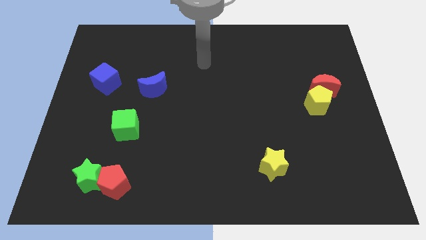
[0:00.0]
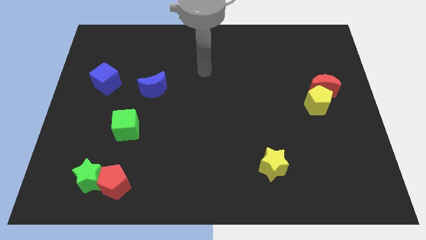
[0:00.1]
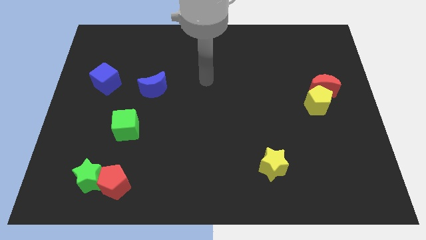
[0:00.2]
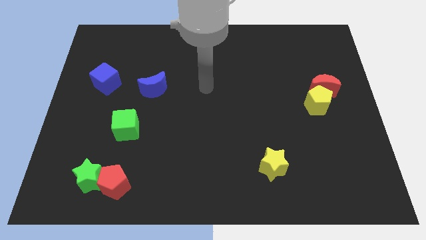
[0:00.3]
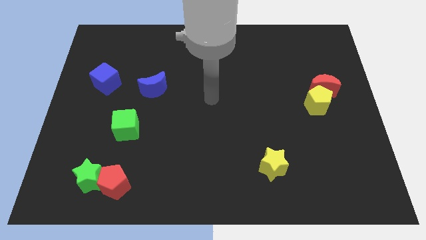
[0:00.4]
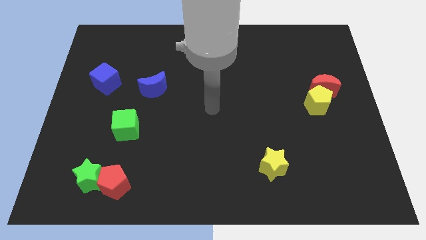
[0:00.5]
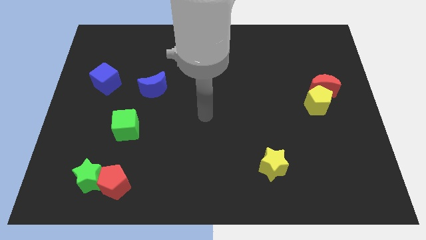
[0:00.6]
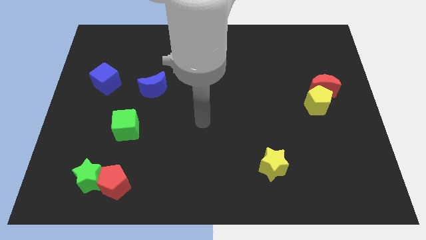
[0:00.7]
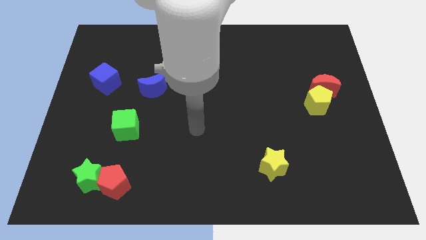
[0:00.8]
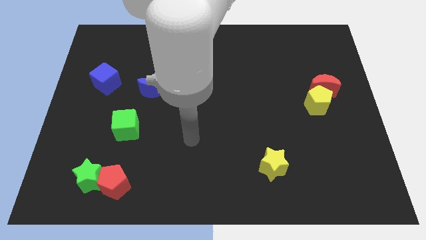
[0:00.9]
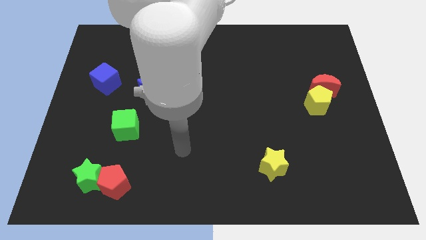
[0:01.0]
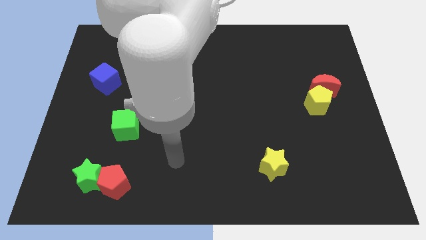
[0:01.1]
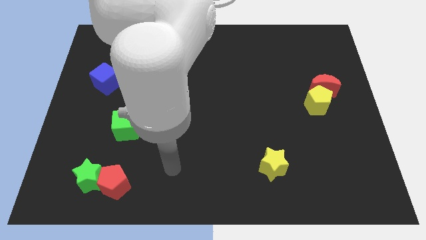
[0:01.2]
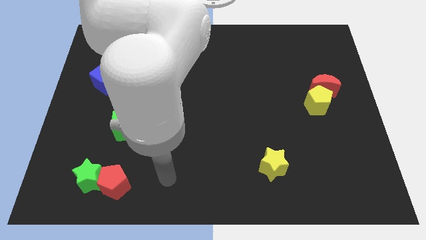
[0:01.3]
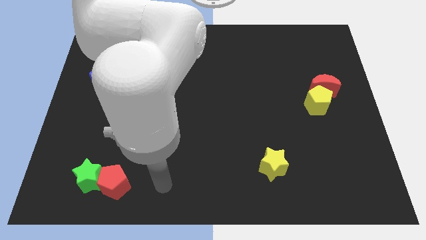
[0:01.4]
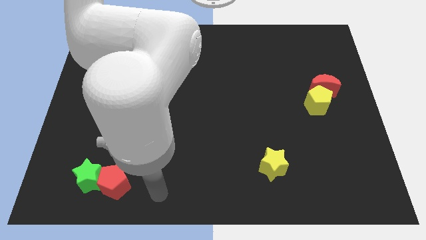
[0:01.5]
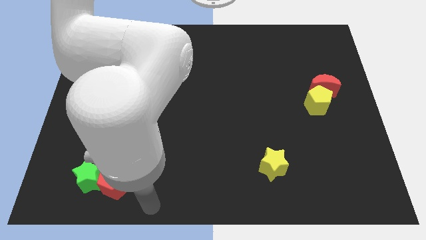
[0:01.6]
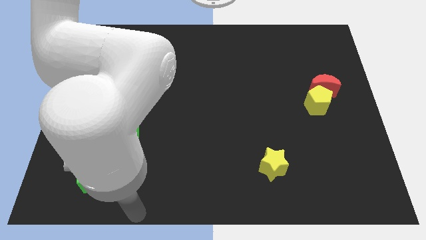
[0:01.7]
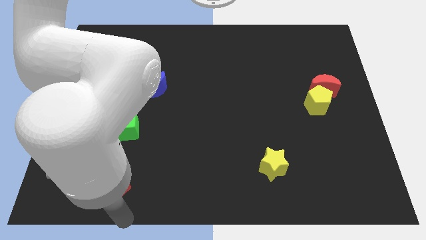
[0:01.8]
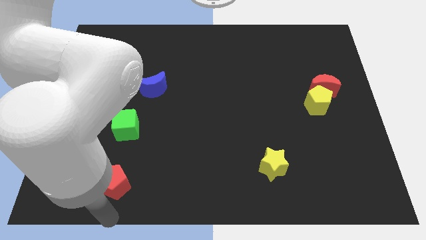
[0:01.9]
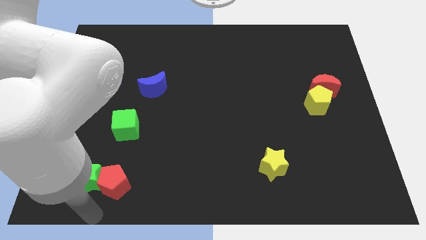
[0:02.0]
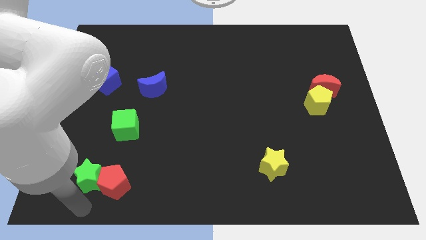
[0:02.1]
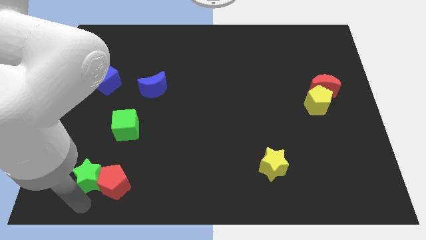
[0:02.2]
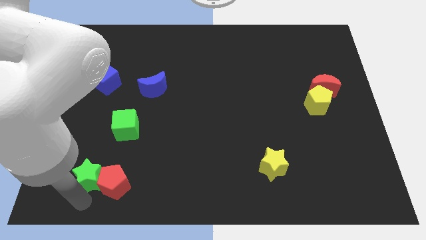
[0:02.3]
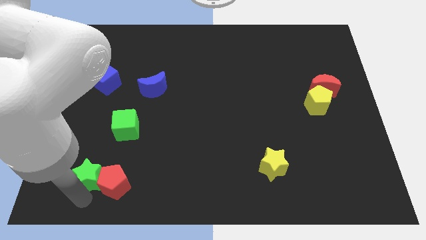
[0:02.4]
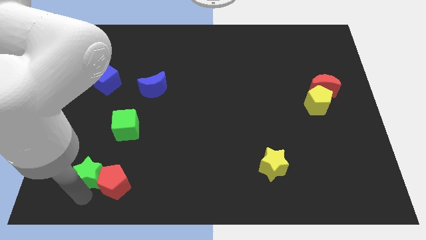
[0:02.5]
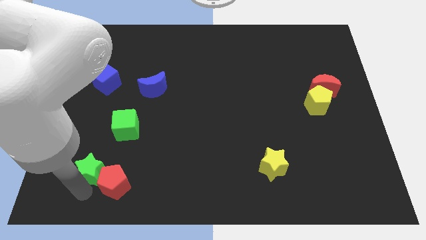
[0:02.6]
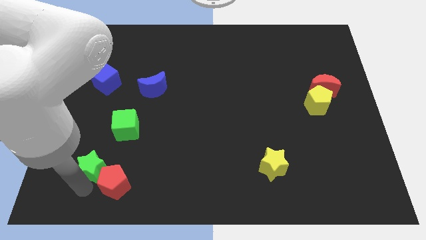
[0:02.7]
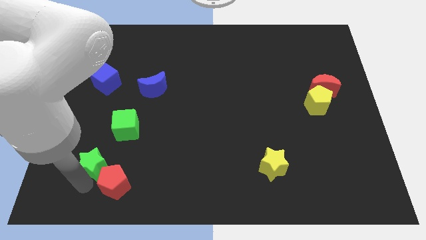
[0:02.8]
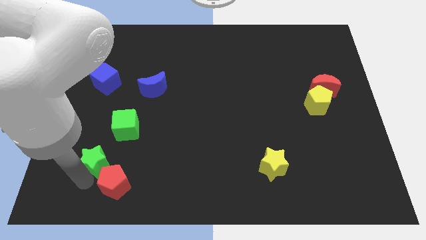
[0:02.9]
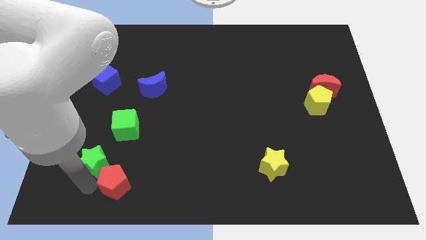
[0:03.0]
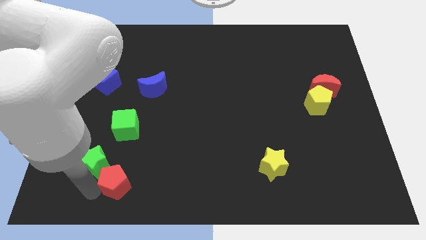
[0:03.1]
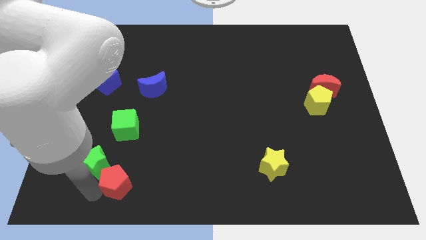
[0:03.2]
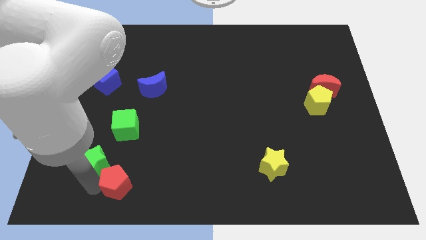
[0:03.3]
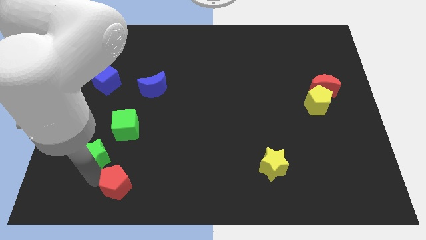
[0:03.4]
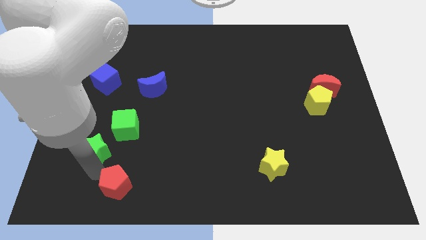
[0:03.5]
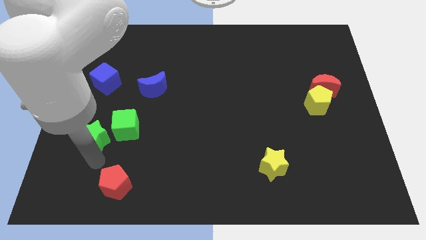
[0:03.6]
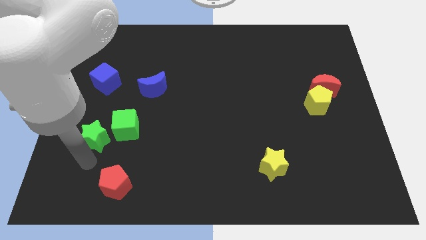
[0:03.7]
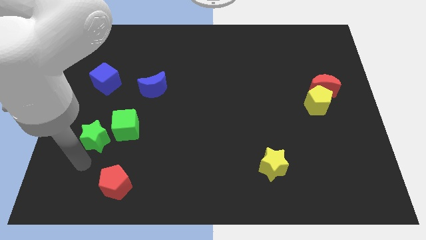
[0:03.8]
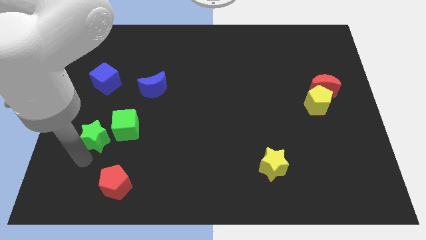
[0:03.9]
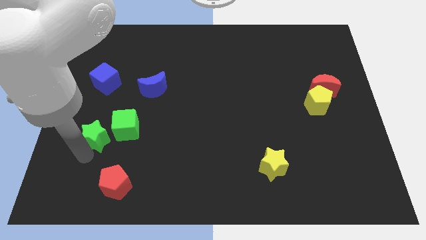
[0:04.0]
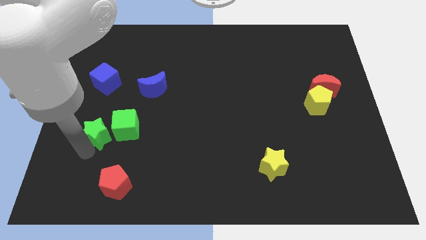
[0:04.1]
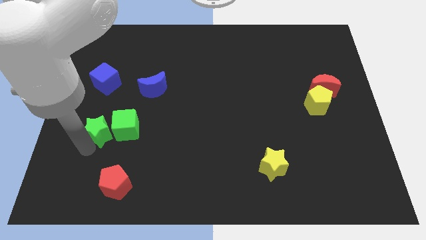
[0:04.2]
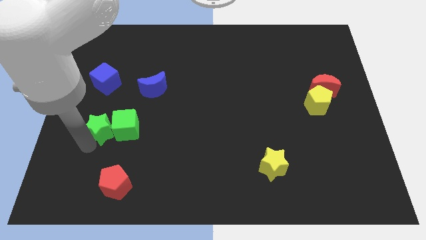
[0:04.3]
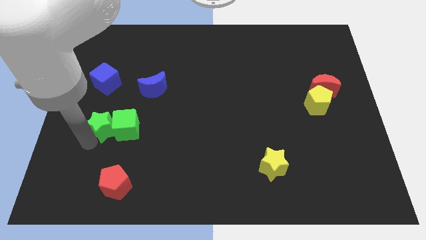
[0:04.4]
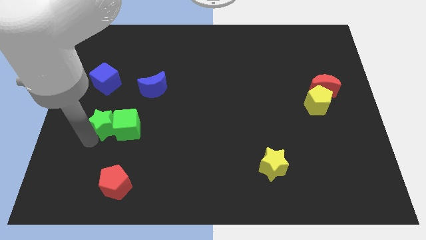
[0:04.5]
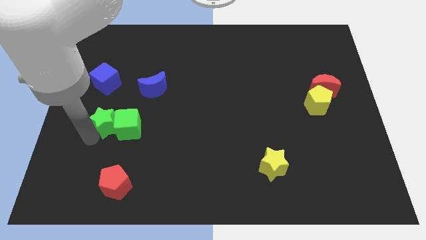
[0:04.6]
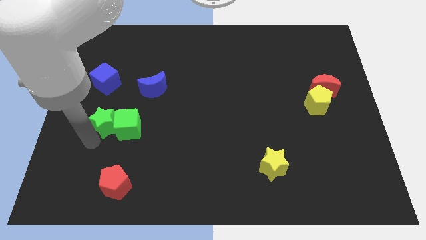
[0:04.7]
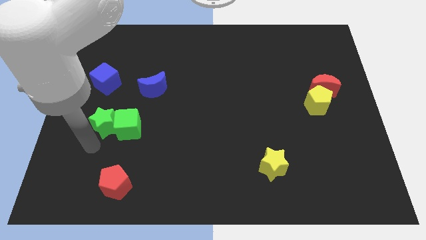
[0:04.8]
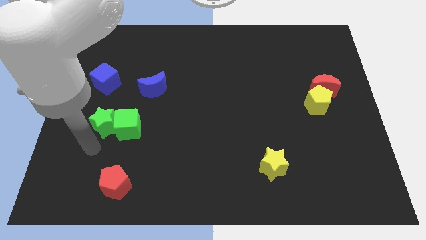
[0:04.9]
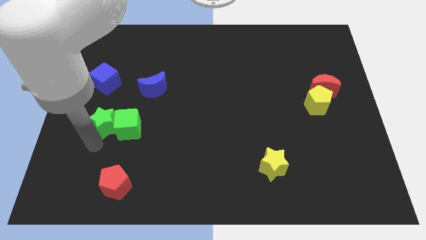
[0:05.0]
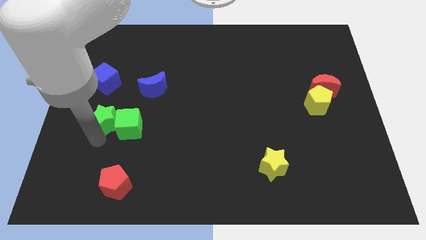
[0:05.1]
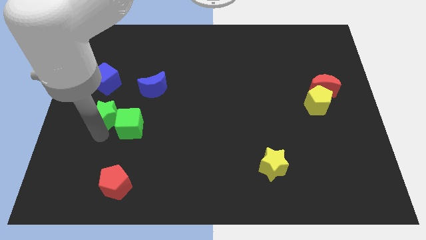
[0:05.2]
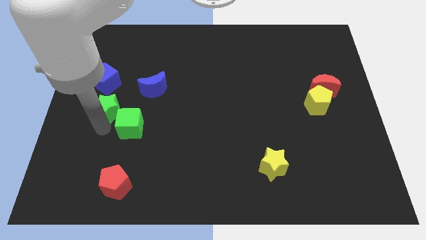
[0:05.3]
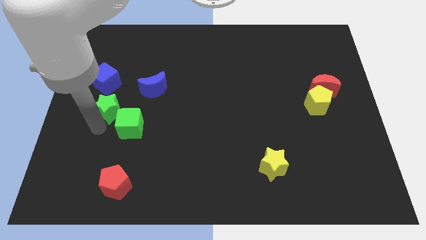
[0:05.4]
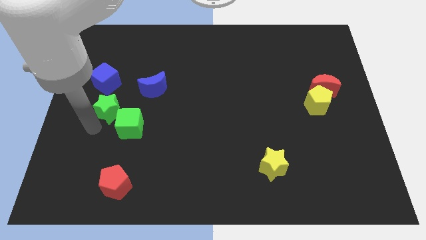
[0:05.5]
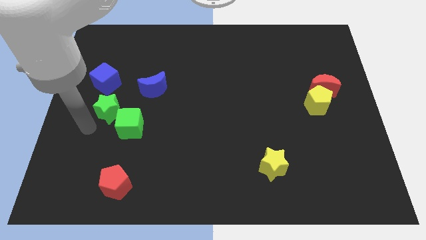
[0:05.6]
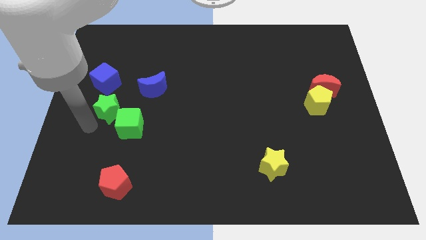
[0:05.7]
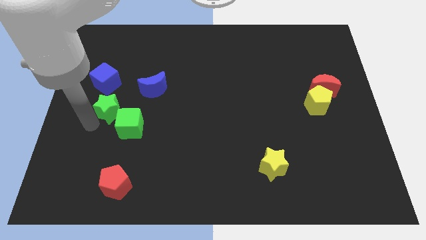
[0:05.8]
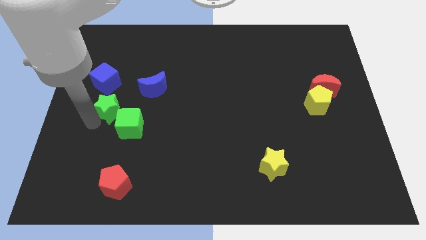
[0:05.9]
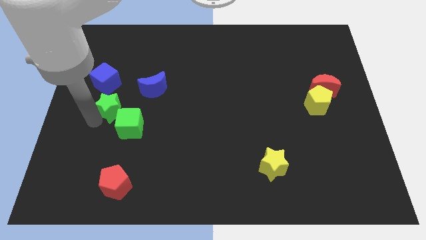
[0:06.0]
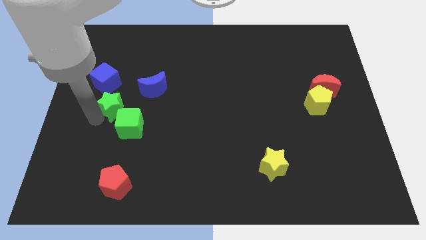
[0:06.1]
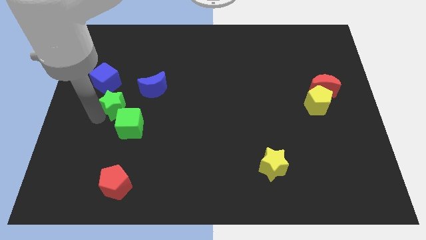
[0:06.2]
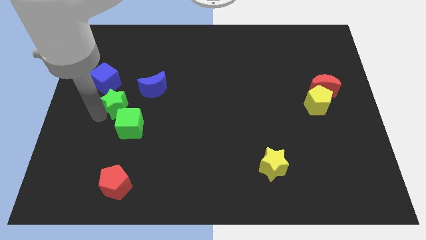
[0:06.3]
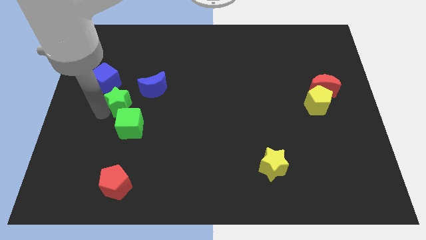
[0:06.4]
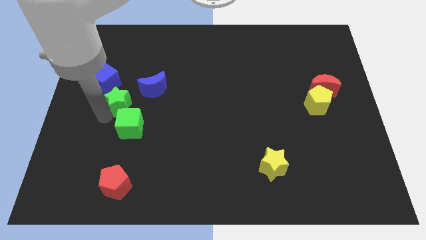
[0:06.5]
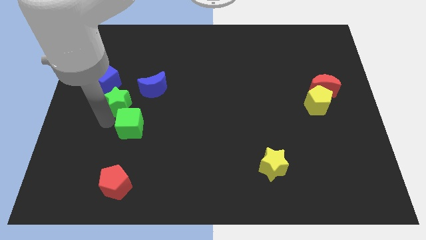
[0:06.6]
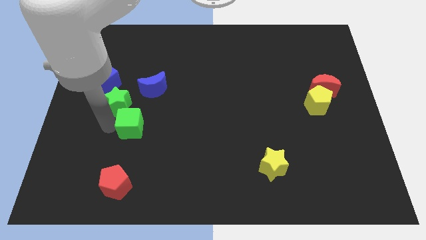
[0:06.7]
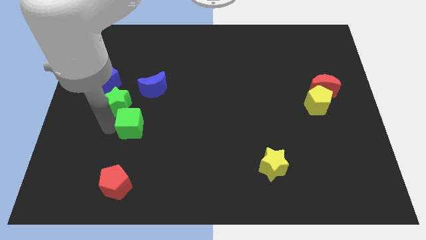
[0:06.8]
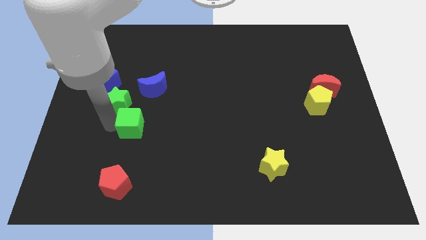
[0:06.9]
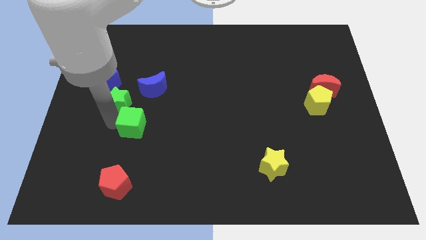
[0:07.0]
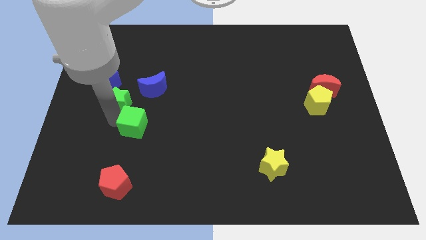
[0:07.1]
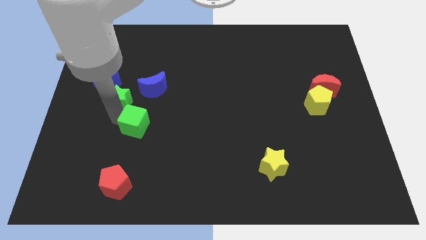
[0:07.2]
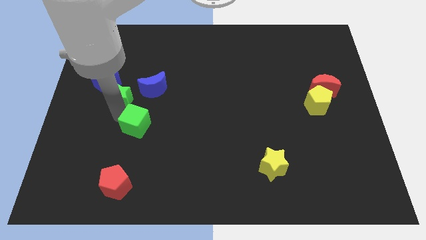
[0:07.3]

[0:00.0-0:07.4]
slide the green star up

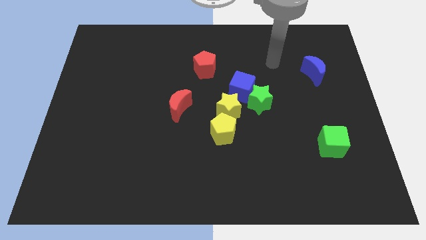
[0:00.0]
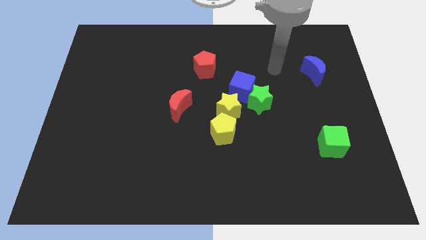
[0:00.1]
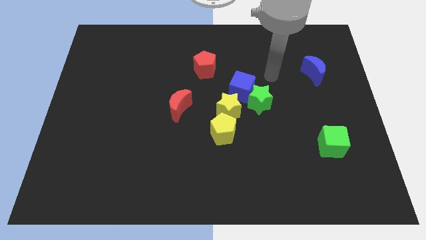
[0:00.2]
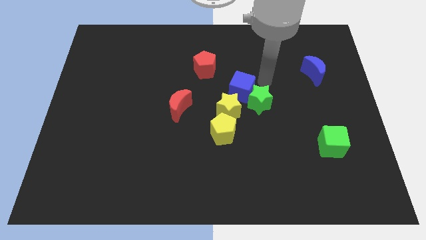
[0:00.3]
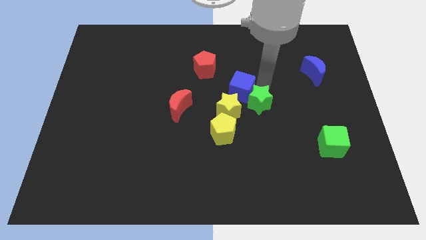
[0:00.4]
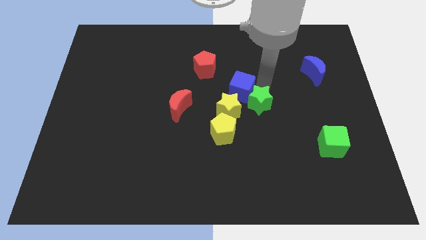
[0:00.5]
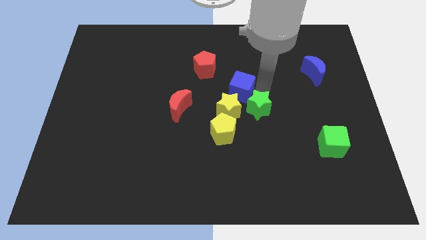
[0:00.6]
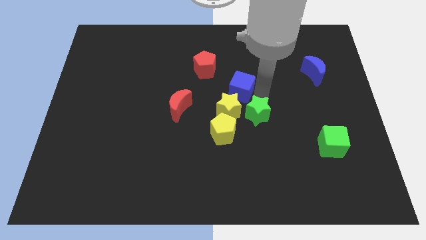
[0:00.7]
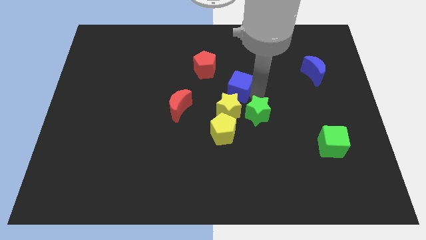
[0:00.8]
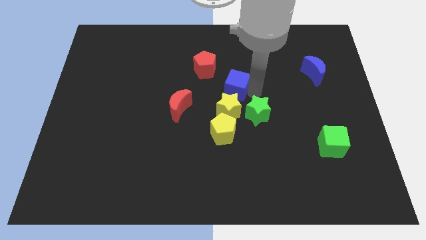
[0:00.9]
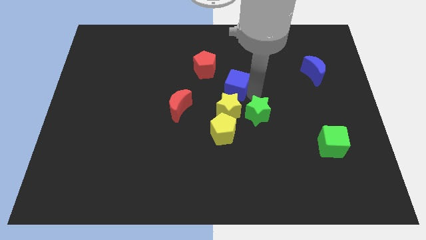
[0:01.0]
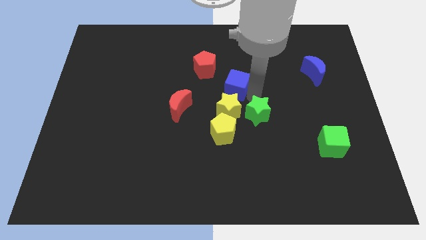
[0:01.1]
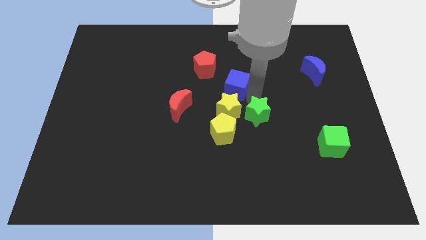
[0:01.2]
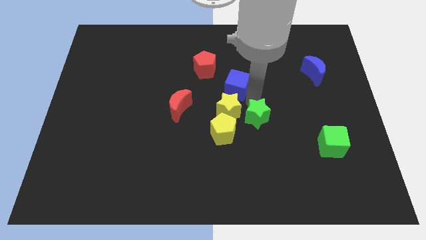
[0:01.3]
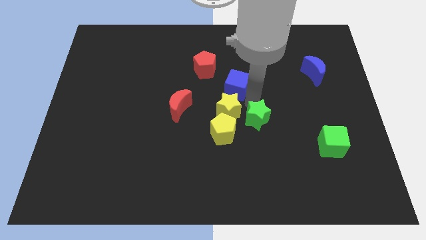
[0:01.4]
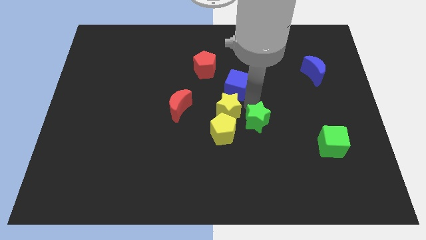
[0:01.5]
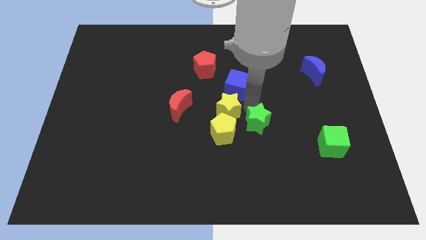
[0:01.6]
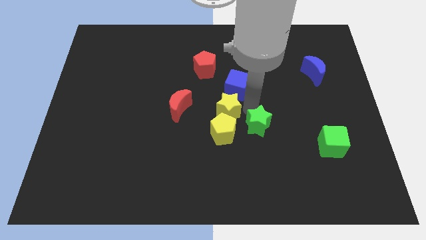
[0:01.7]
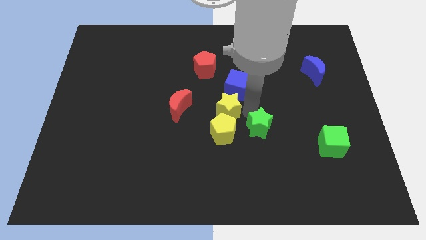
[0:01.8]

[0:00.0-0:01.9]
push the green star downwards slightly
